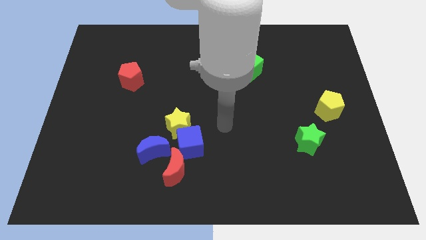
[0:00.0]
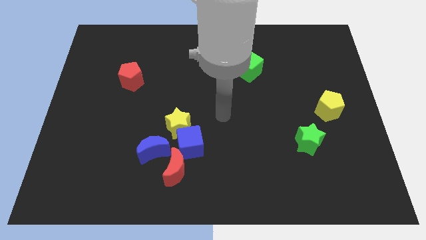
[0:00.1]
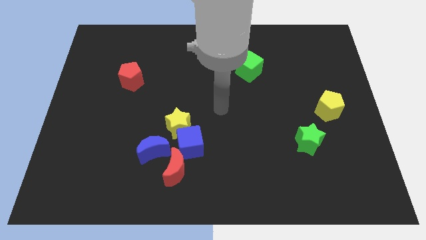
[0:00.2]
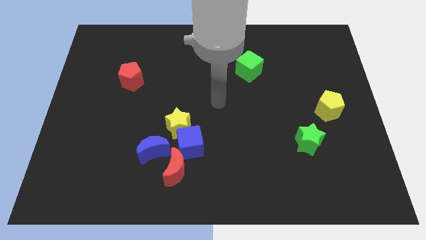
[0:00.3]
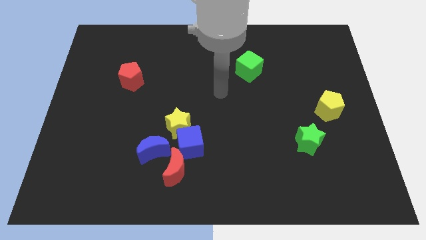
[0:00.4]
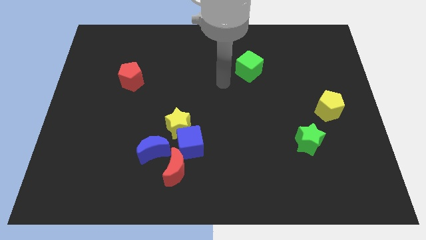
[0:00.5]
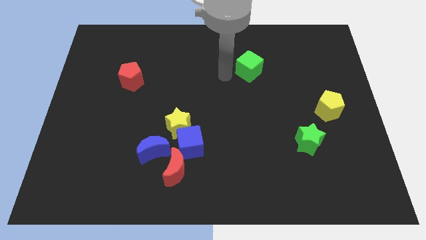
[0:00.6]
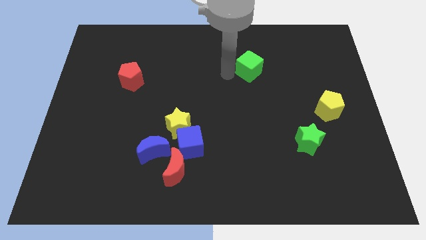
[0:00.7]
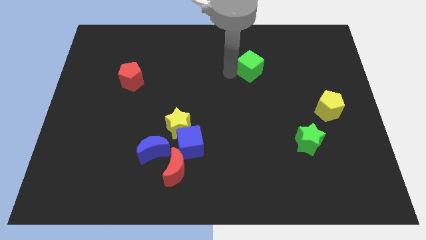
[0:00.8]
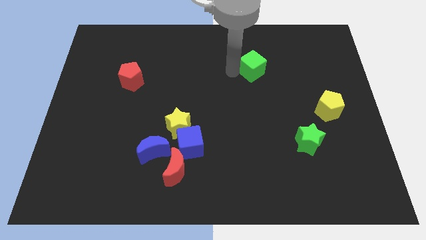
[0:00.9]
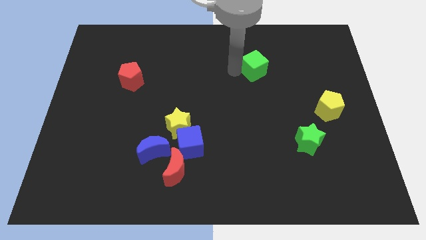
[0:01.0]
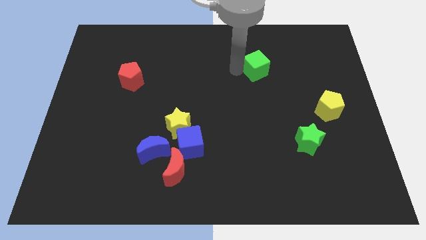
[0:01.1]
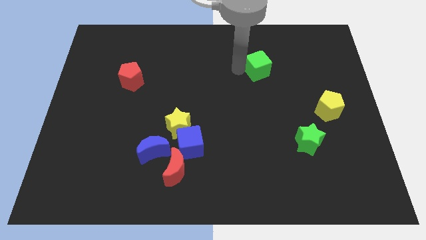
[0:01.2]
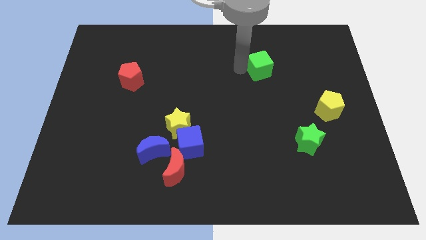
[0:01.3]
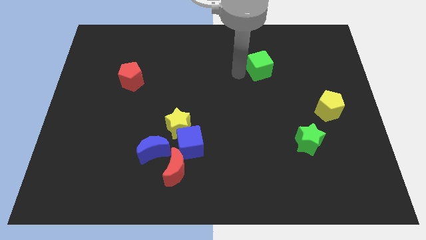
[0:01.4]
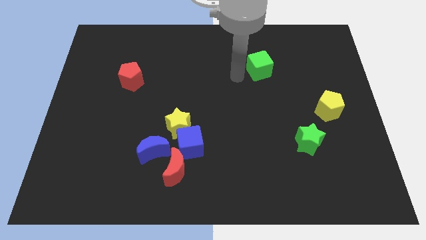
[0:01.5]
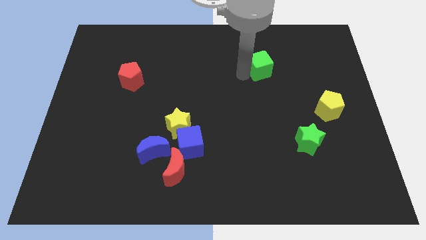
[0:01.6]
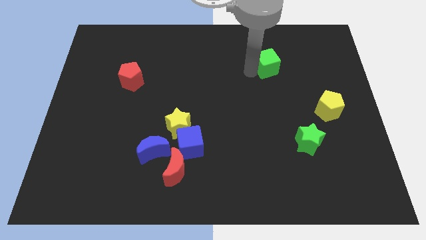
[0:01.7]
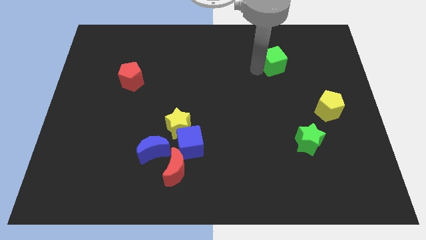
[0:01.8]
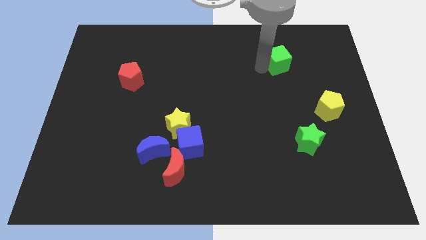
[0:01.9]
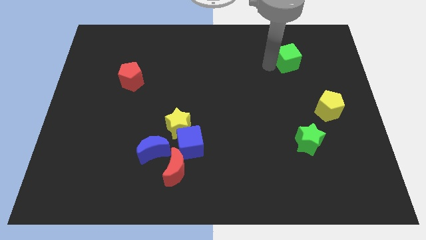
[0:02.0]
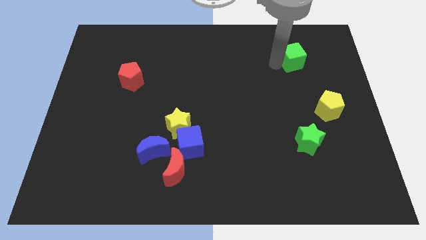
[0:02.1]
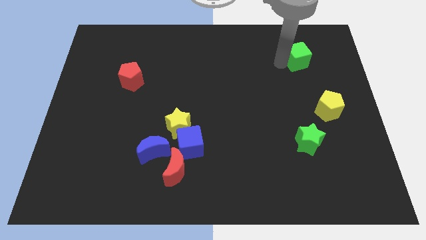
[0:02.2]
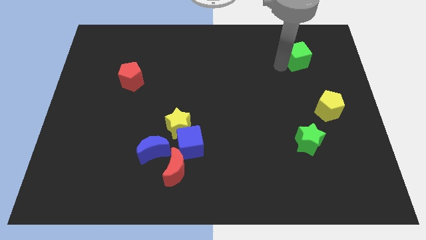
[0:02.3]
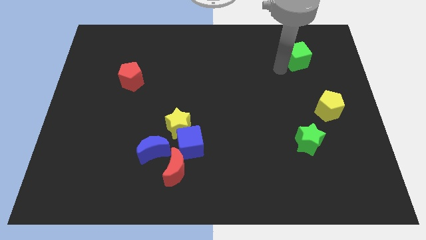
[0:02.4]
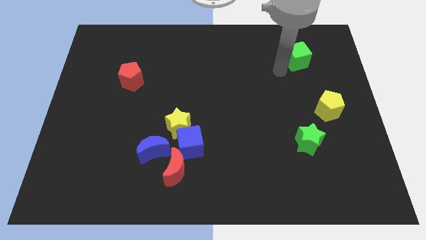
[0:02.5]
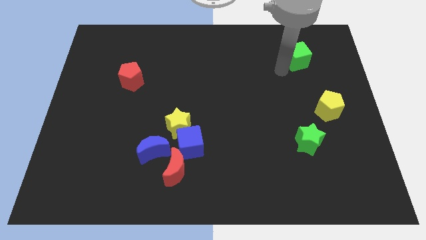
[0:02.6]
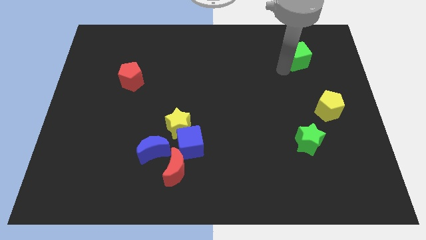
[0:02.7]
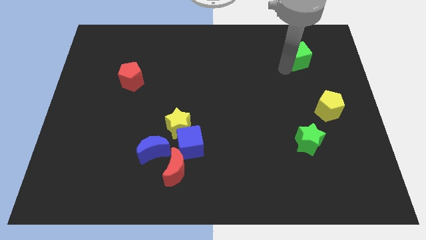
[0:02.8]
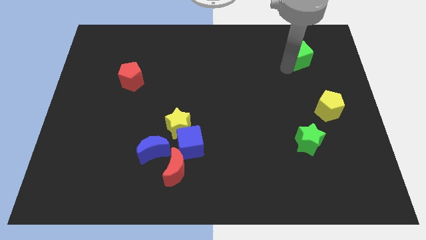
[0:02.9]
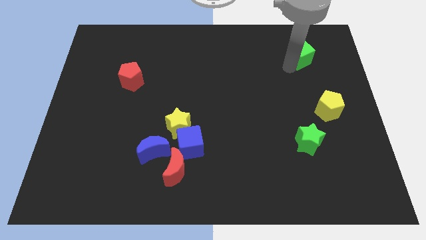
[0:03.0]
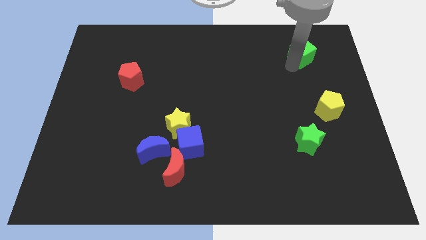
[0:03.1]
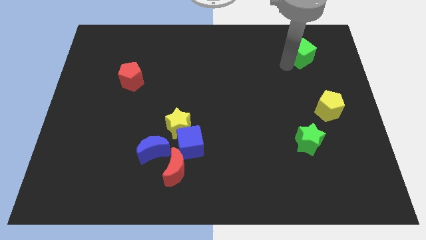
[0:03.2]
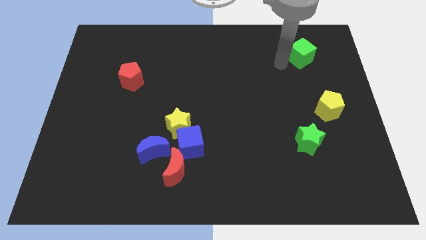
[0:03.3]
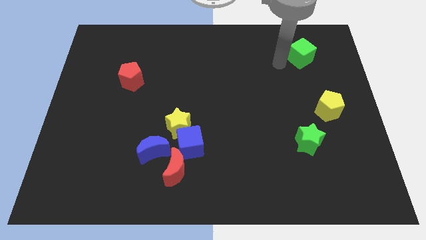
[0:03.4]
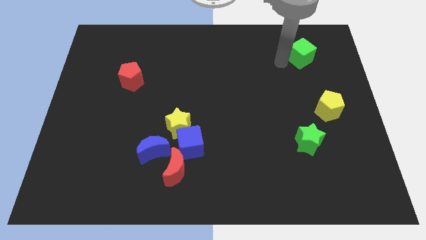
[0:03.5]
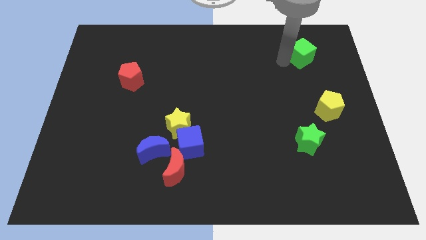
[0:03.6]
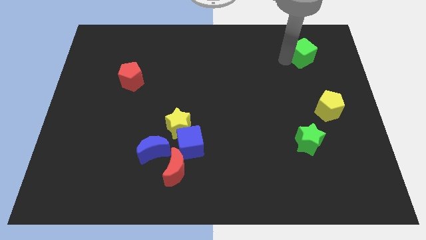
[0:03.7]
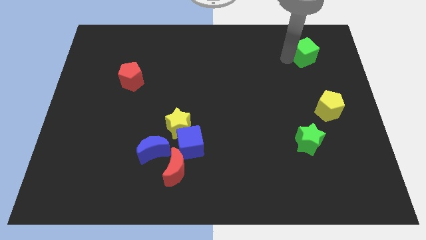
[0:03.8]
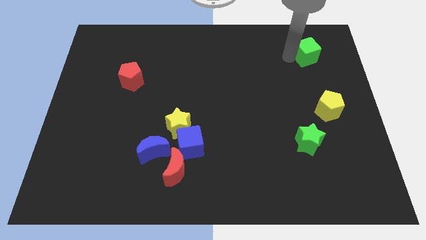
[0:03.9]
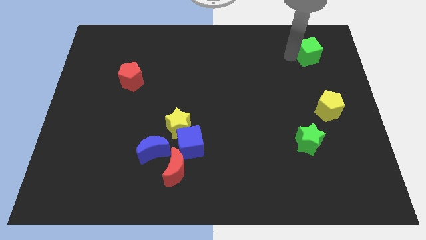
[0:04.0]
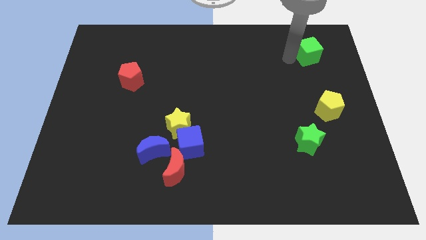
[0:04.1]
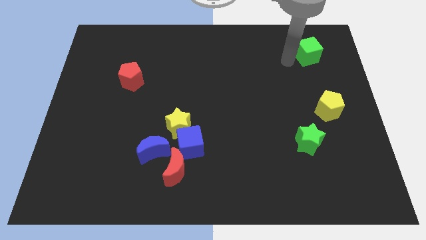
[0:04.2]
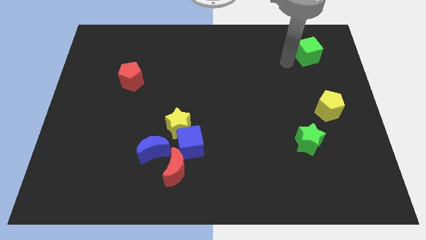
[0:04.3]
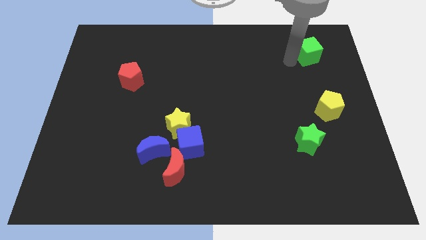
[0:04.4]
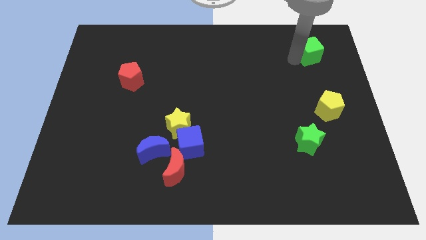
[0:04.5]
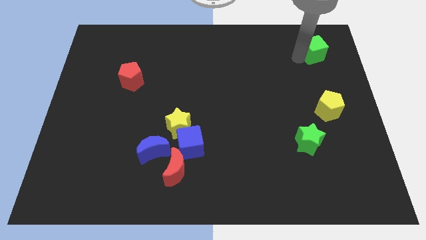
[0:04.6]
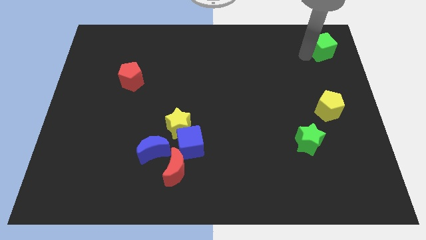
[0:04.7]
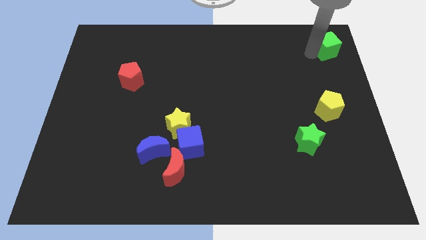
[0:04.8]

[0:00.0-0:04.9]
move the green cube to the top right of the board

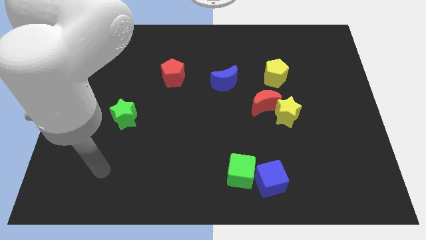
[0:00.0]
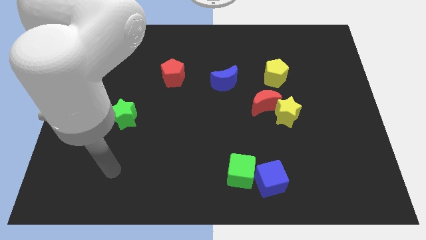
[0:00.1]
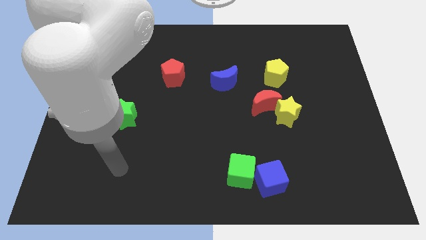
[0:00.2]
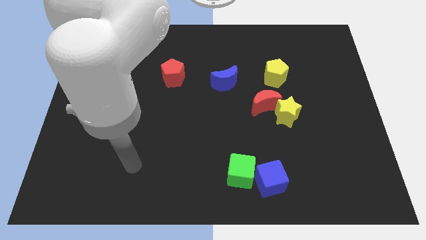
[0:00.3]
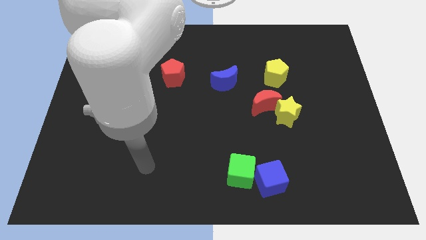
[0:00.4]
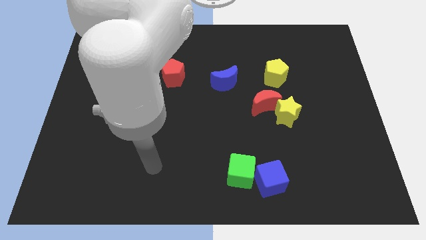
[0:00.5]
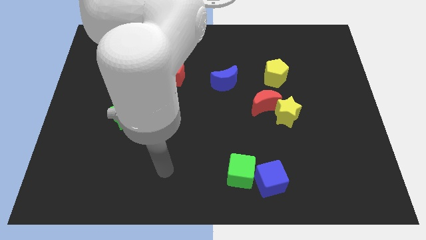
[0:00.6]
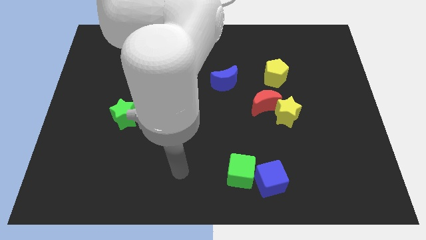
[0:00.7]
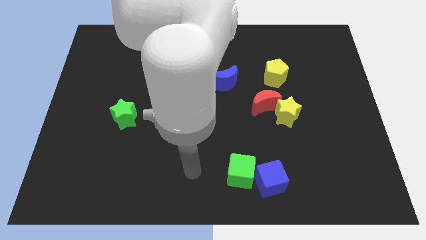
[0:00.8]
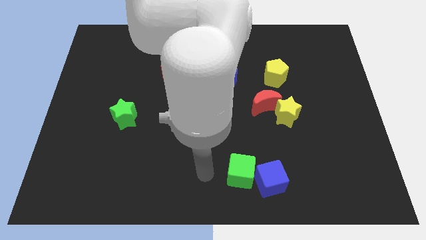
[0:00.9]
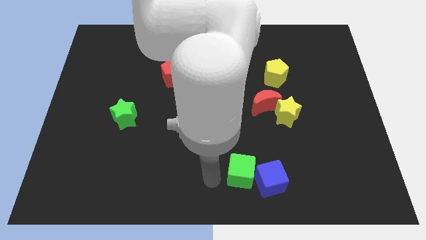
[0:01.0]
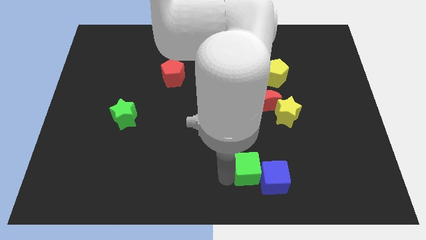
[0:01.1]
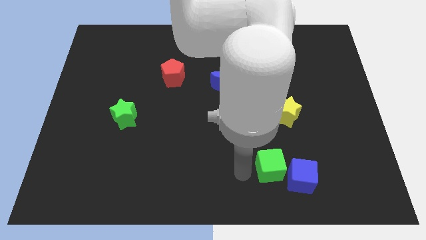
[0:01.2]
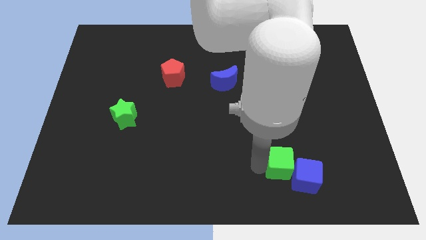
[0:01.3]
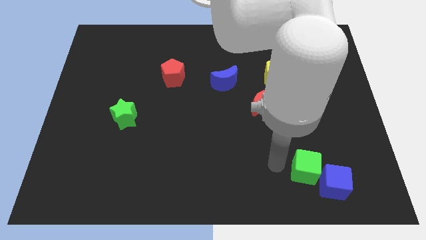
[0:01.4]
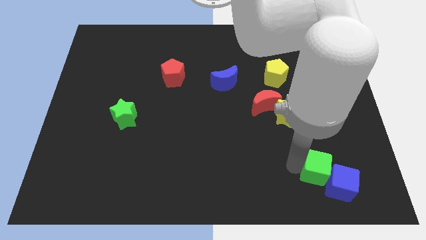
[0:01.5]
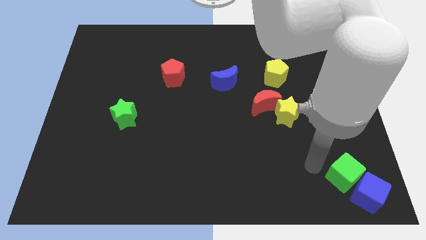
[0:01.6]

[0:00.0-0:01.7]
move the blue cube to the bottom right

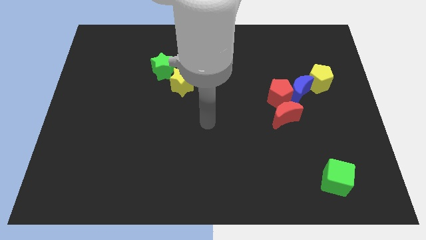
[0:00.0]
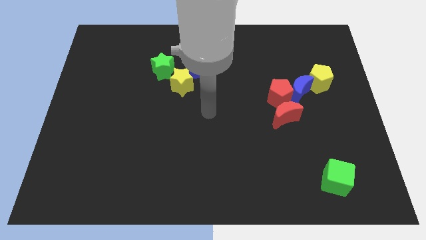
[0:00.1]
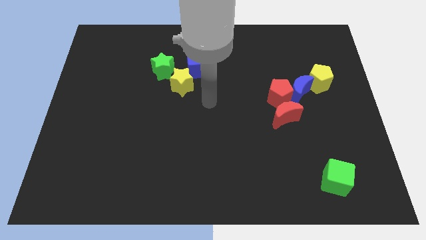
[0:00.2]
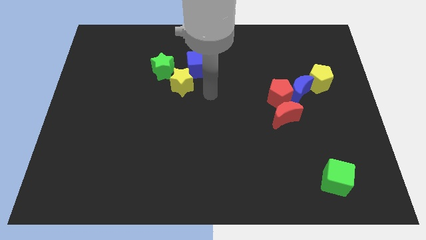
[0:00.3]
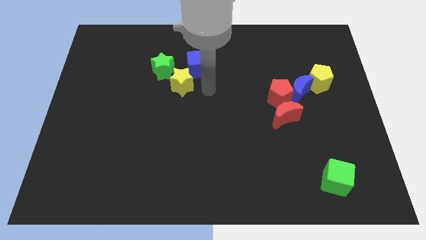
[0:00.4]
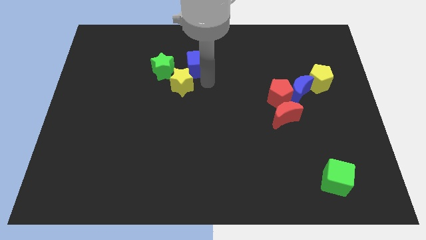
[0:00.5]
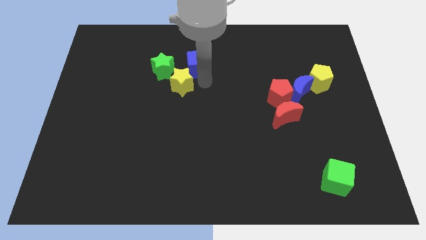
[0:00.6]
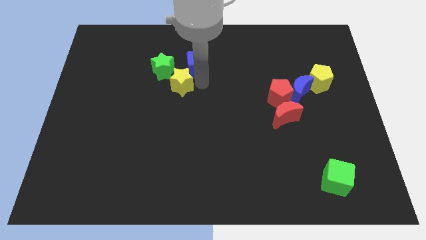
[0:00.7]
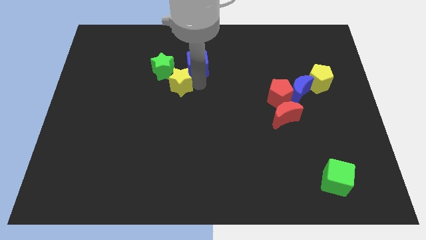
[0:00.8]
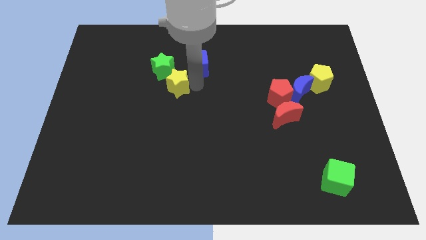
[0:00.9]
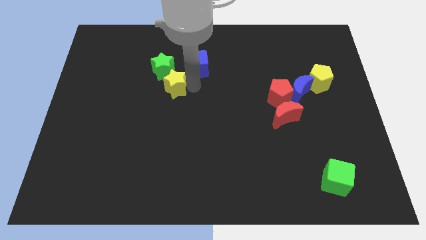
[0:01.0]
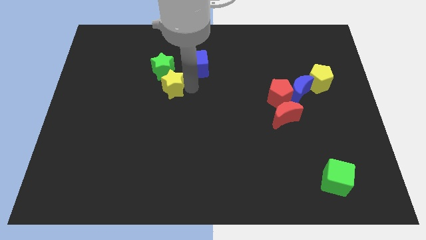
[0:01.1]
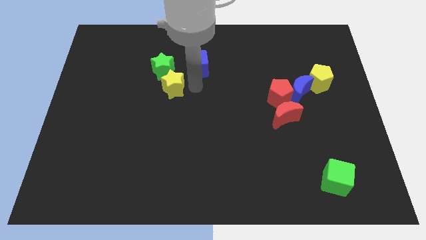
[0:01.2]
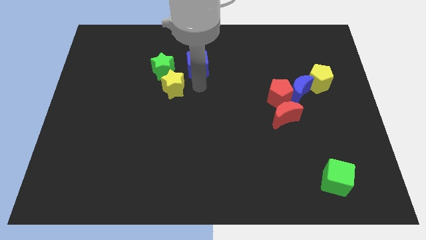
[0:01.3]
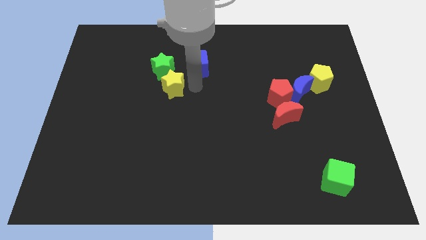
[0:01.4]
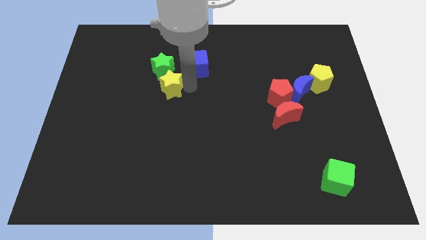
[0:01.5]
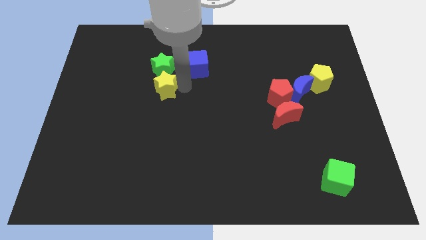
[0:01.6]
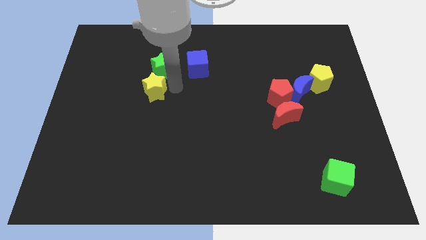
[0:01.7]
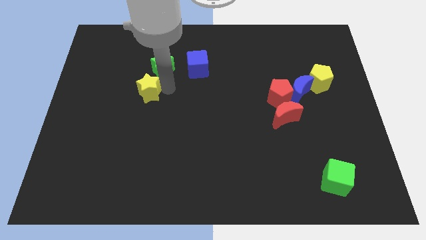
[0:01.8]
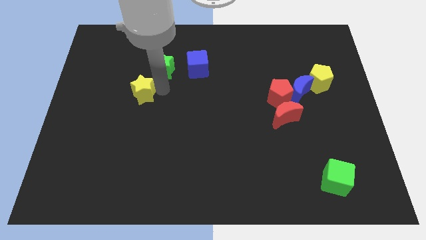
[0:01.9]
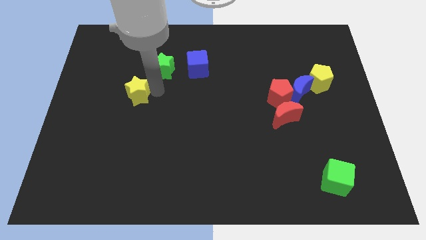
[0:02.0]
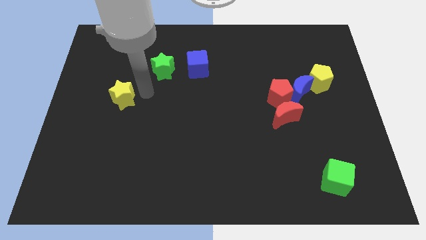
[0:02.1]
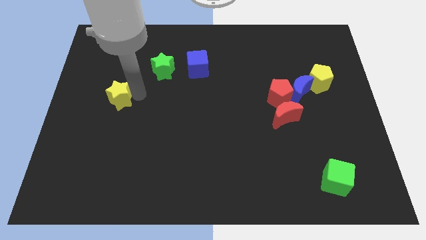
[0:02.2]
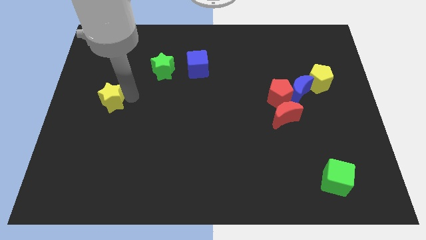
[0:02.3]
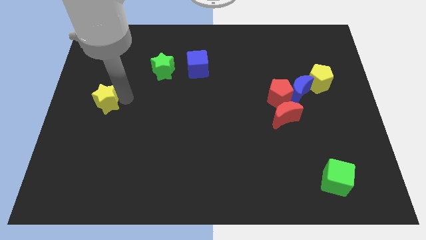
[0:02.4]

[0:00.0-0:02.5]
slide the yellow star to the left side of the board
